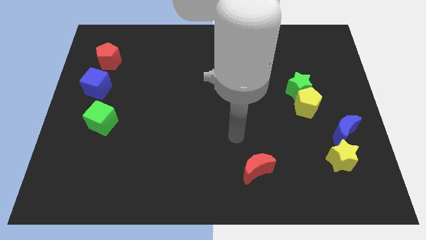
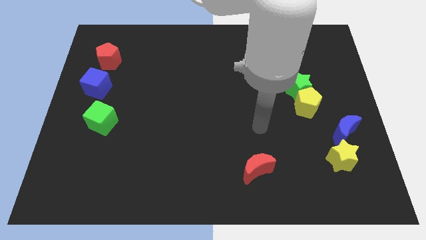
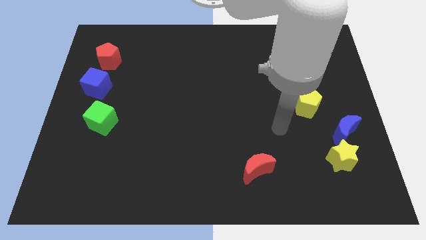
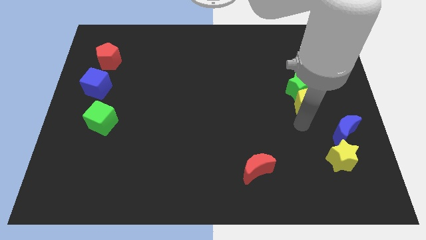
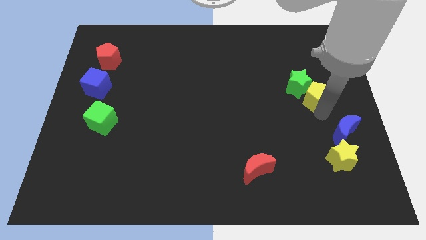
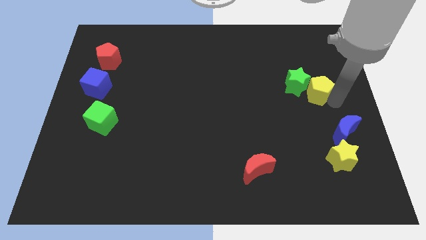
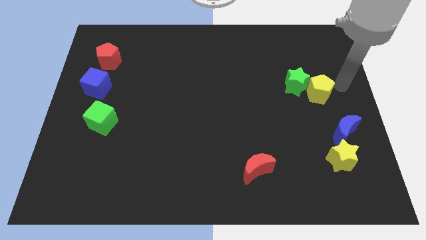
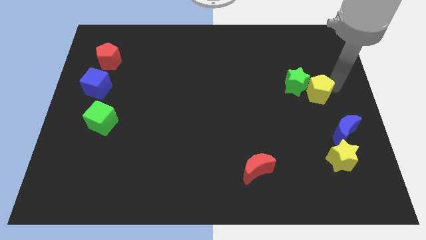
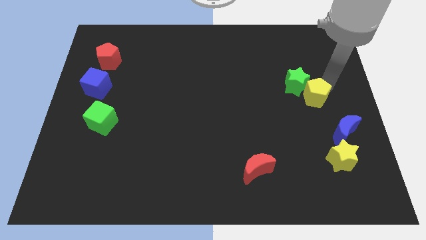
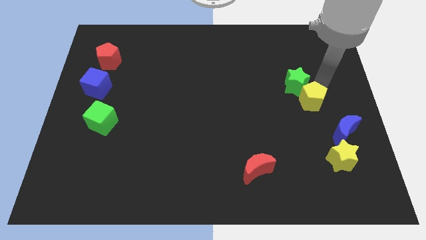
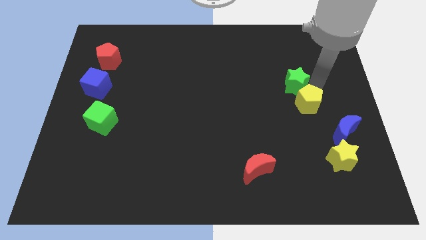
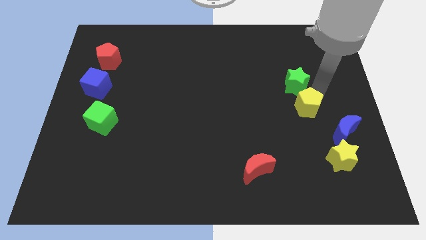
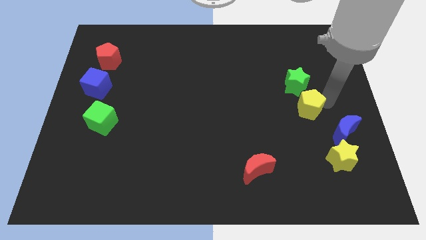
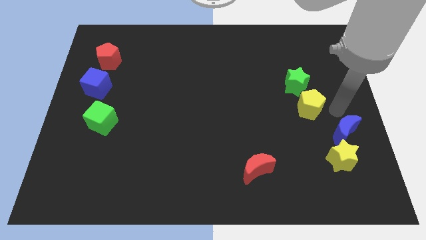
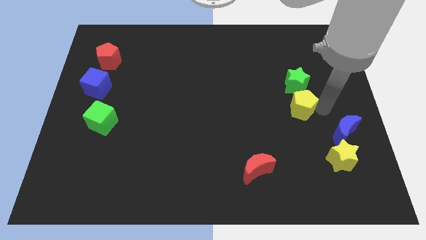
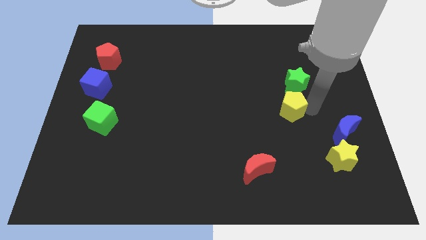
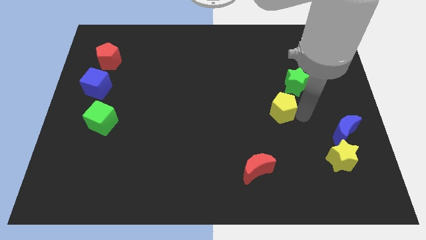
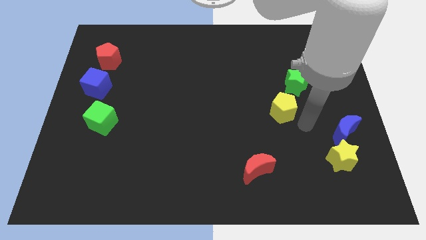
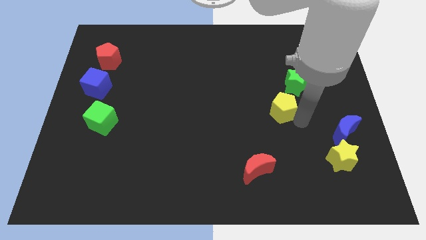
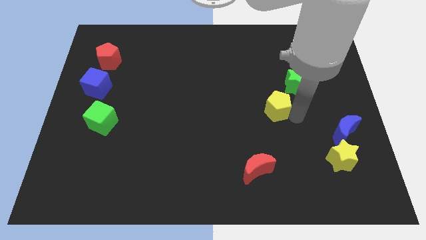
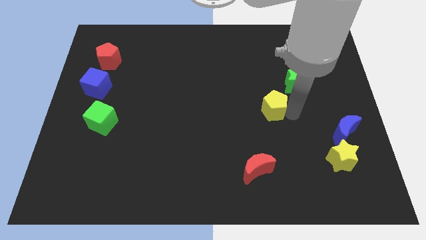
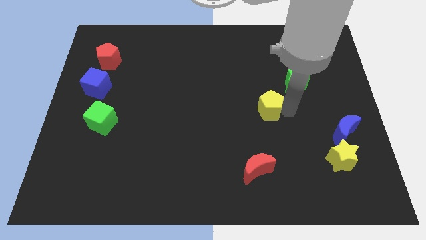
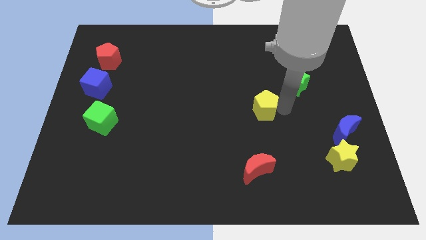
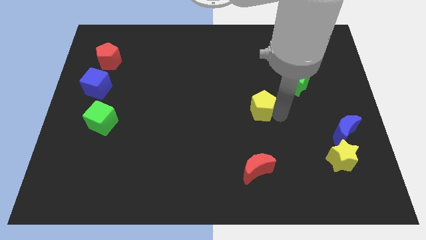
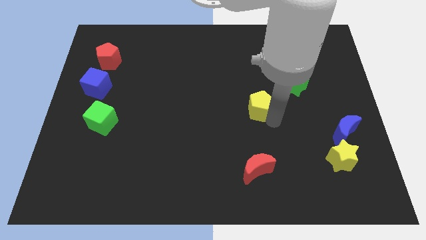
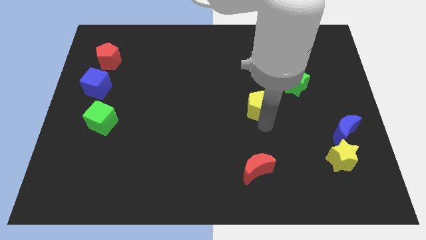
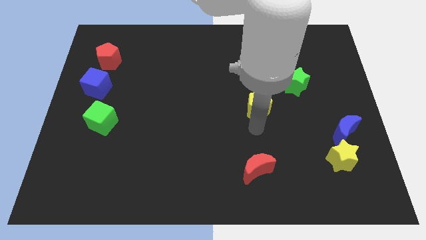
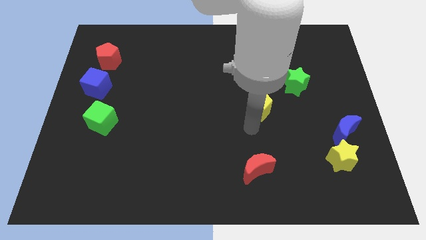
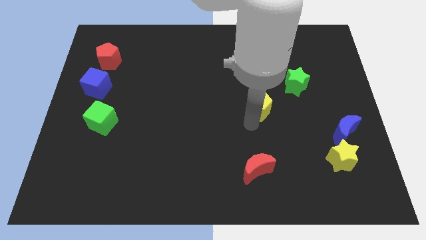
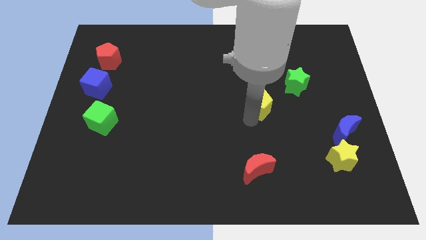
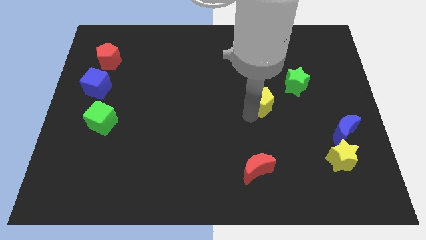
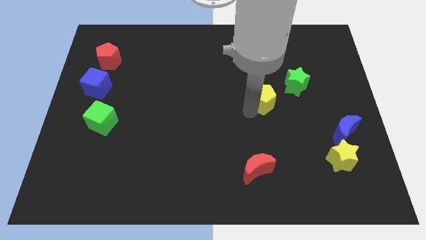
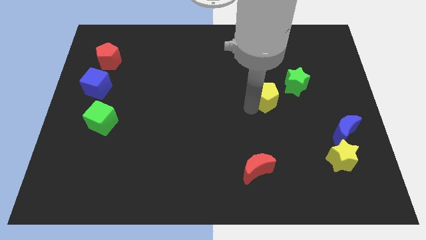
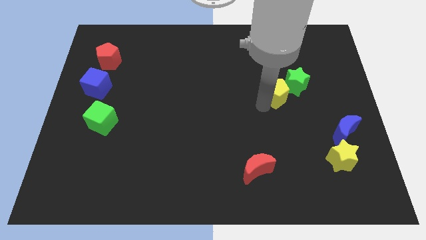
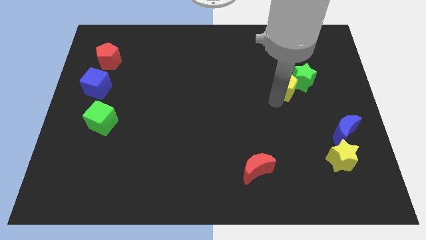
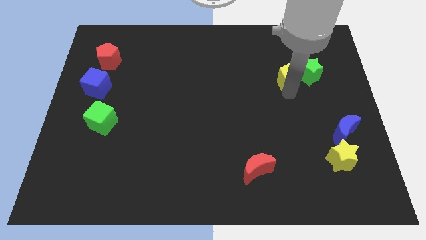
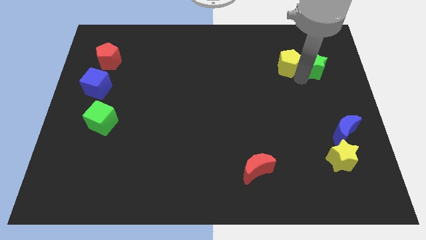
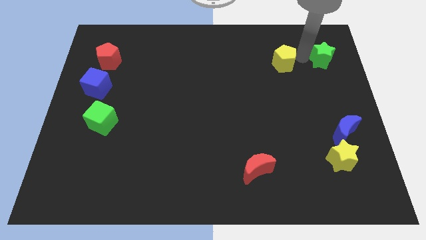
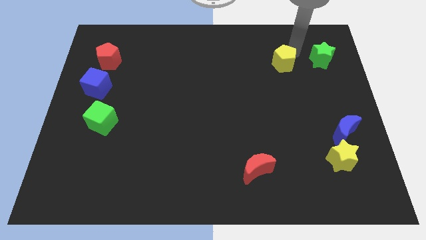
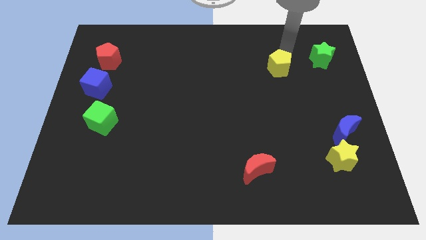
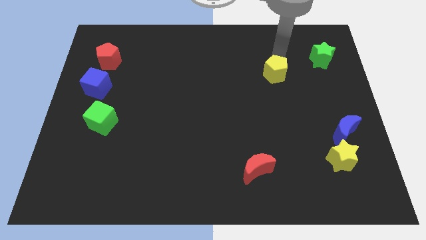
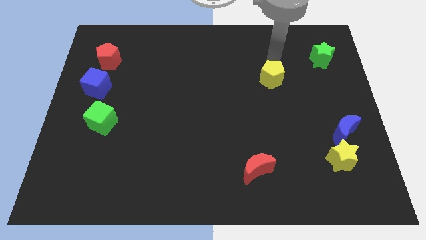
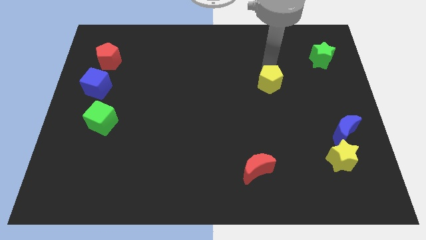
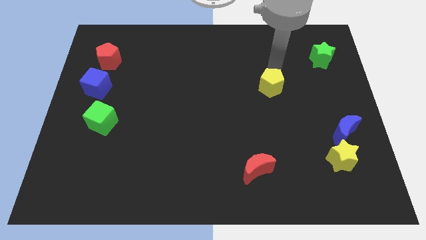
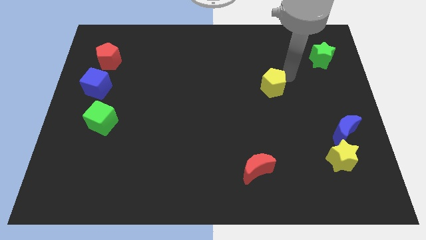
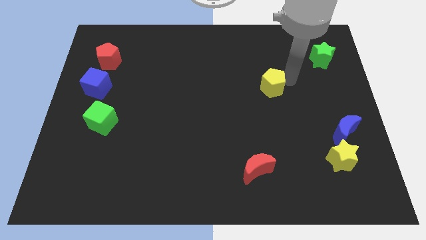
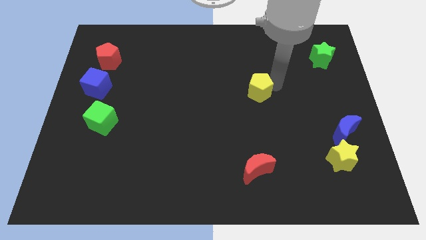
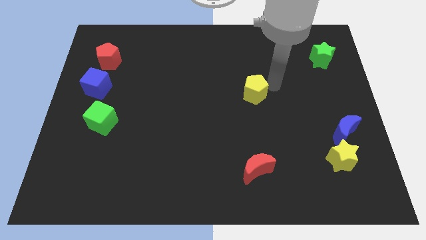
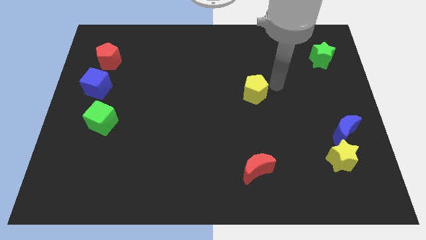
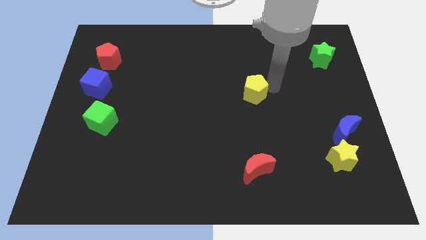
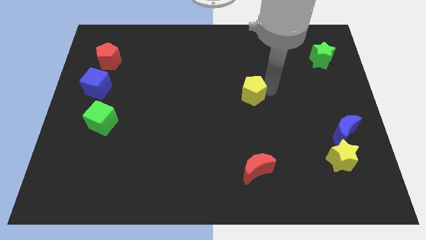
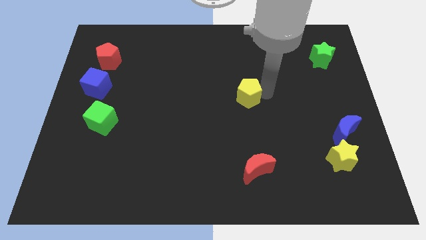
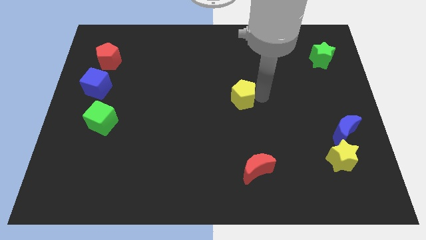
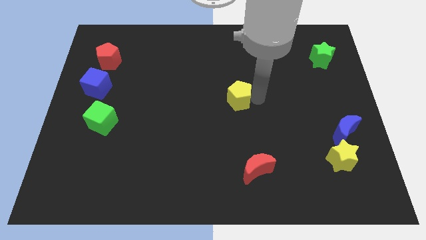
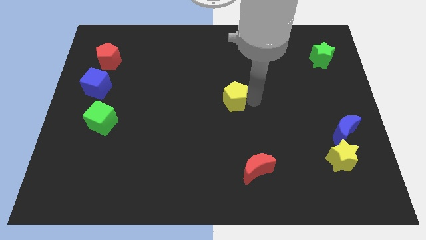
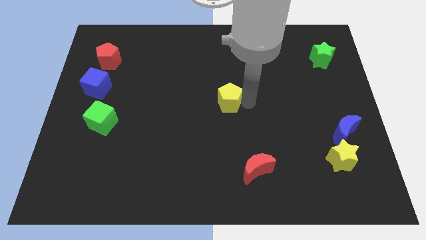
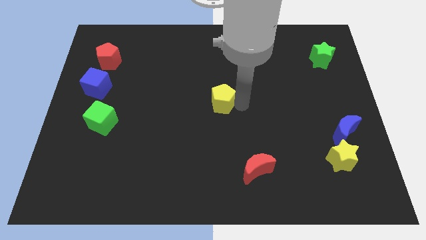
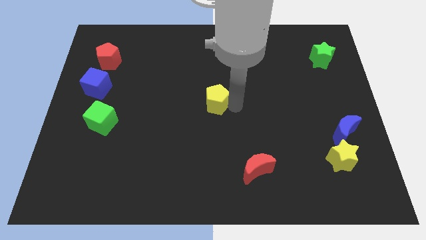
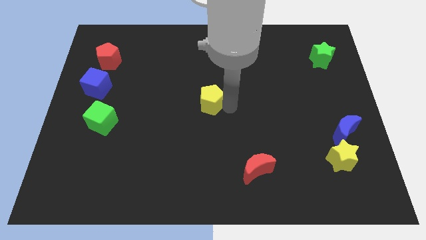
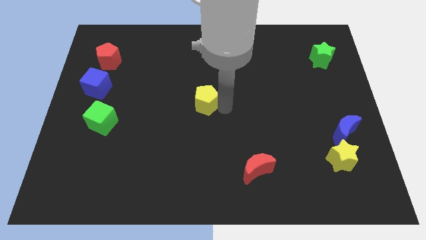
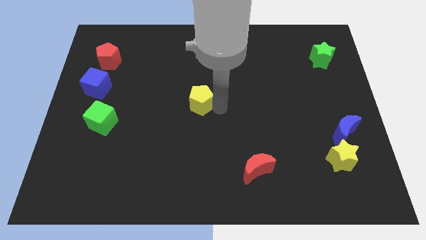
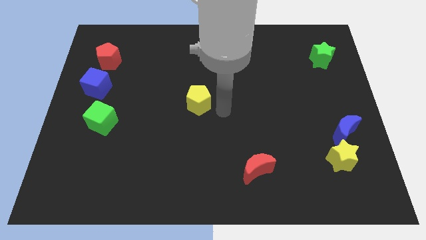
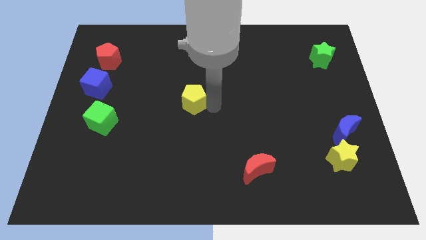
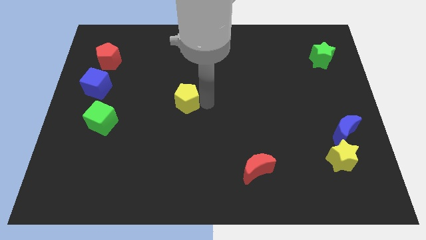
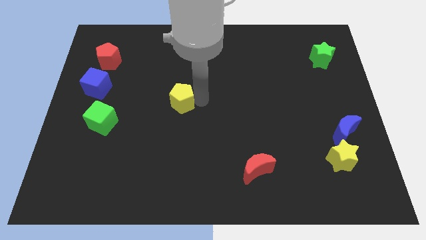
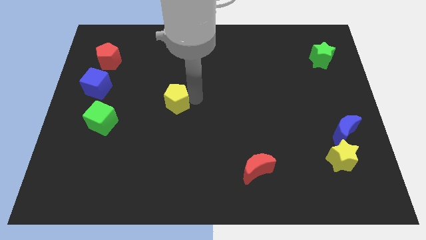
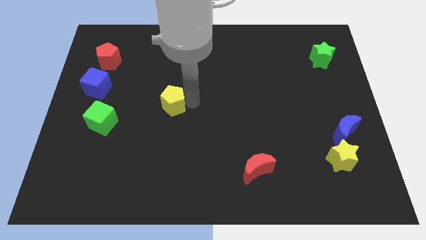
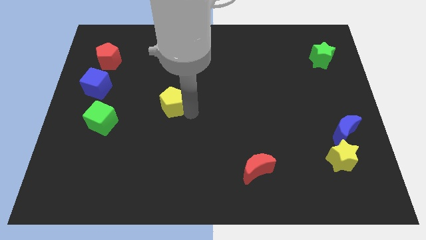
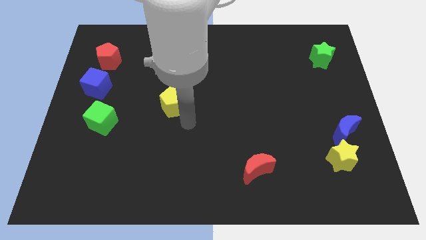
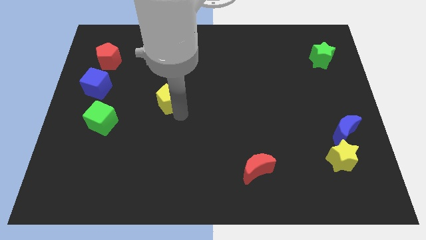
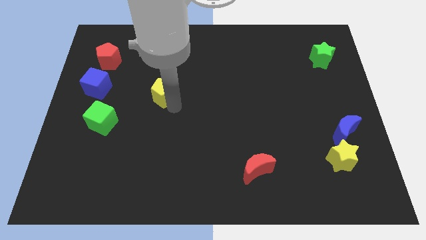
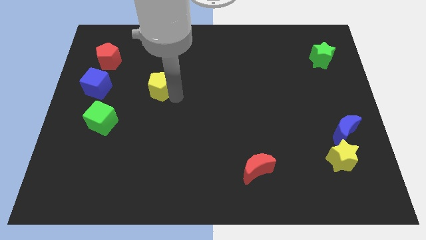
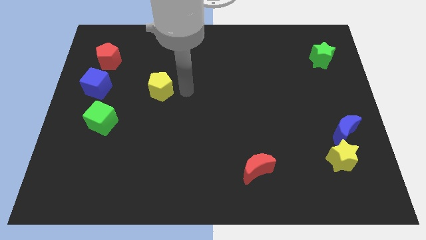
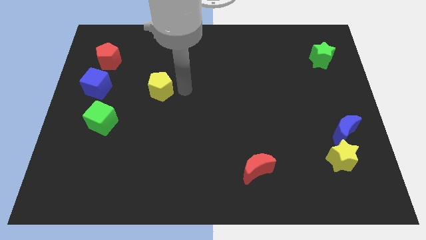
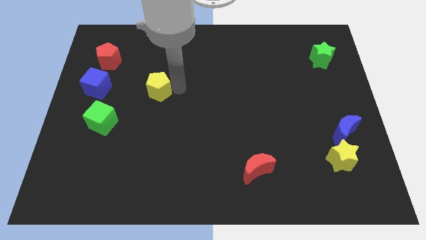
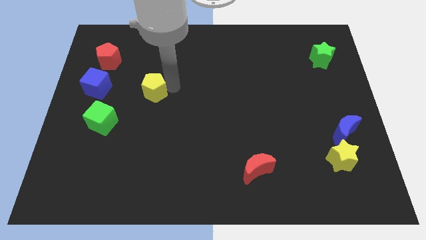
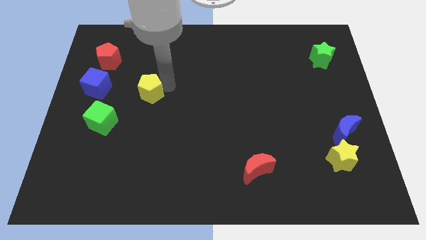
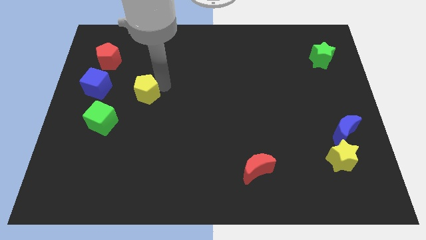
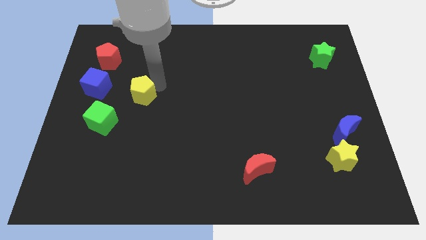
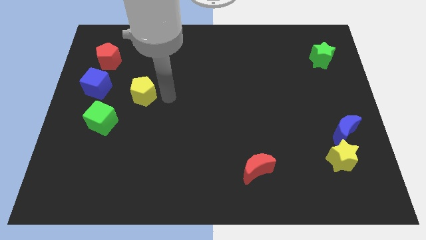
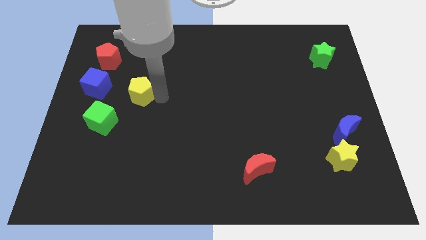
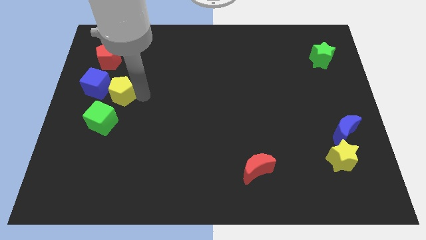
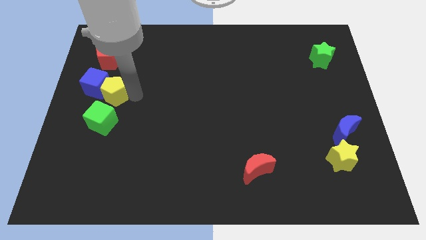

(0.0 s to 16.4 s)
push the yellow pentagon close to the blue cube
